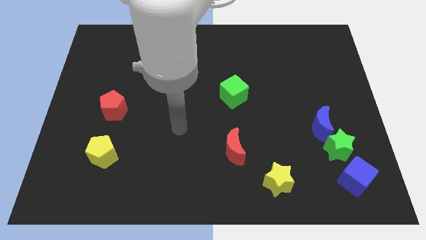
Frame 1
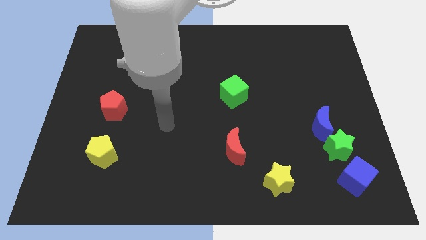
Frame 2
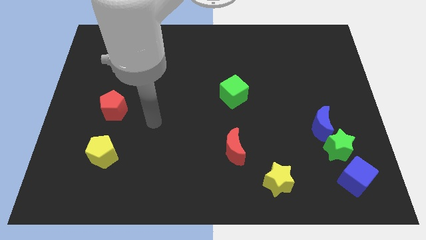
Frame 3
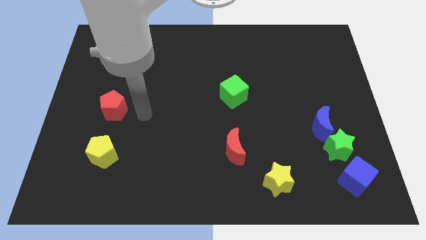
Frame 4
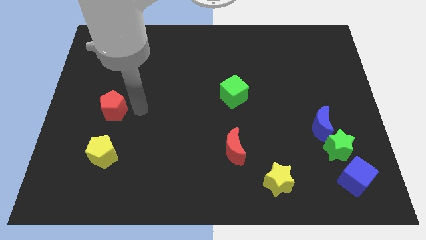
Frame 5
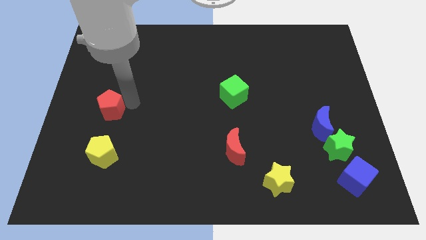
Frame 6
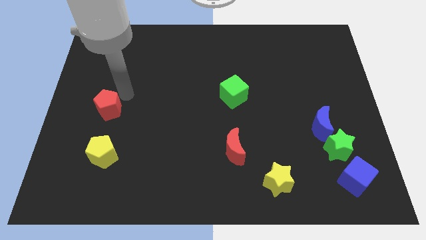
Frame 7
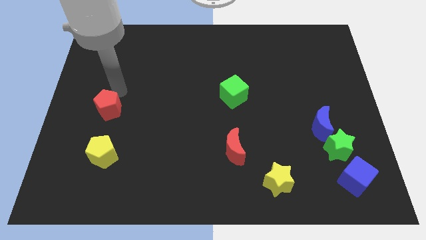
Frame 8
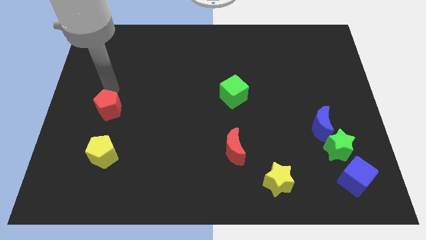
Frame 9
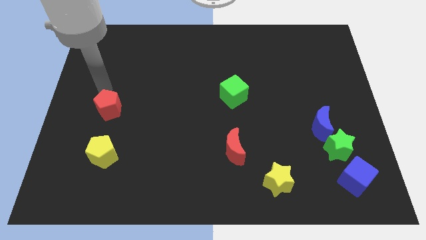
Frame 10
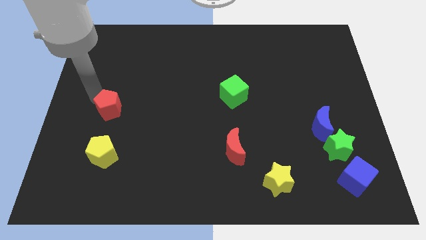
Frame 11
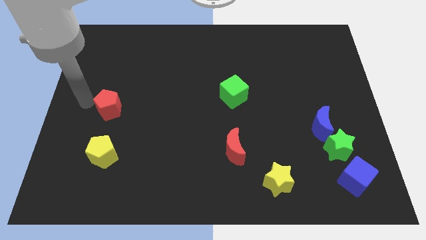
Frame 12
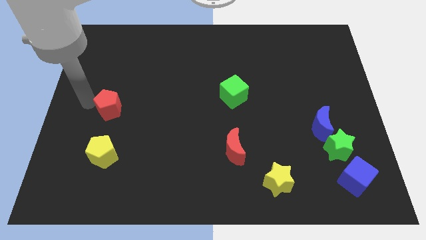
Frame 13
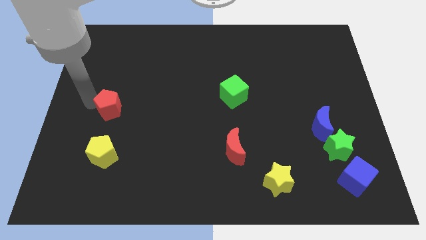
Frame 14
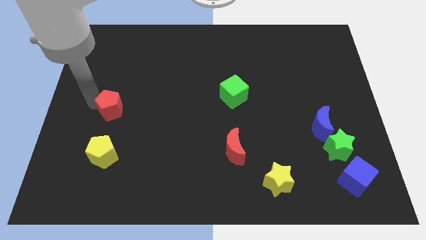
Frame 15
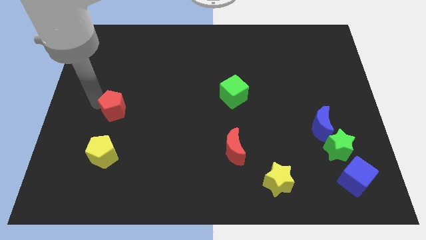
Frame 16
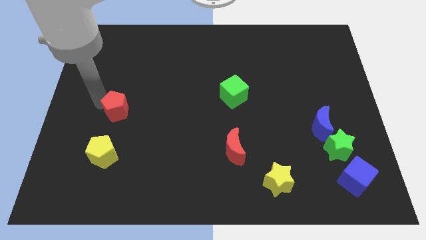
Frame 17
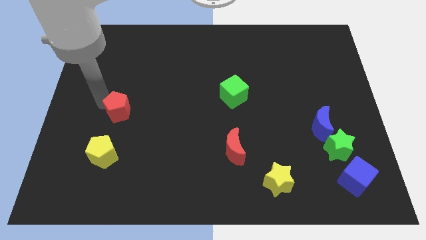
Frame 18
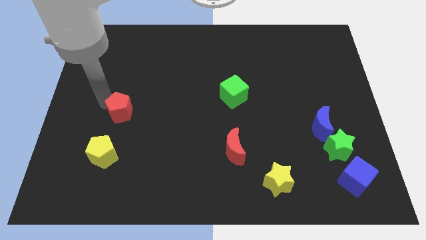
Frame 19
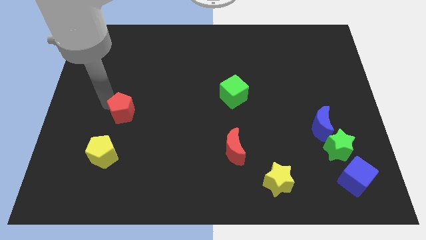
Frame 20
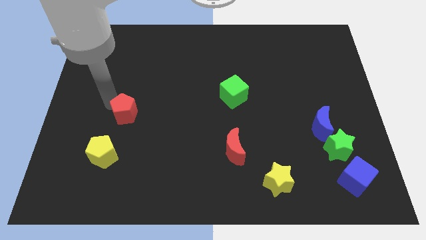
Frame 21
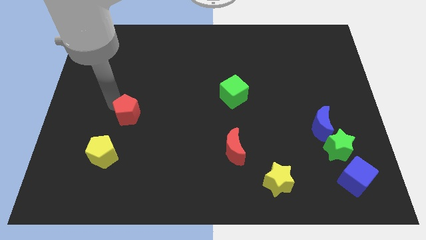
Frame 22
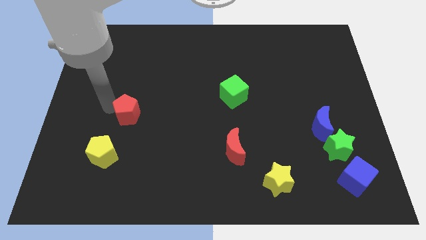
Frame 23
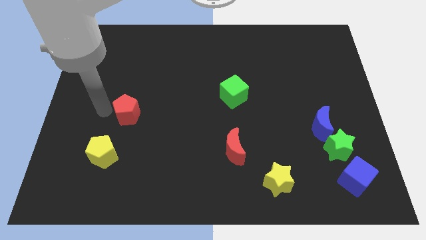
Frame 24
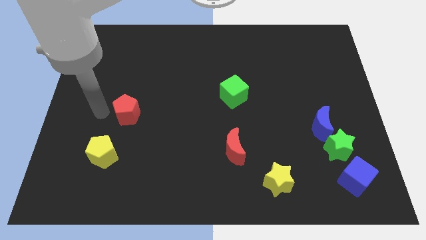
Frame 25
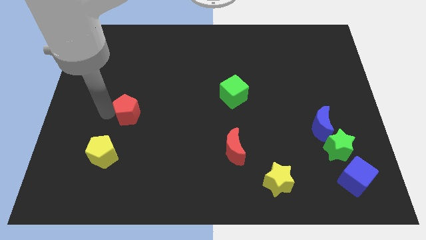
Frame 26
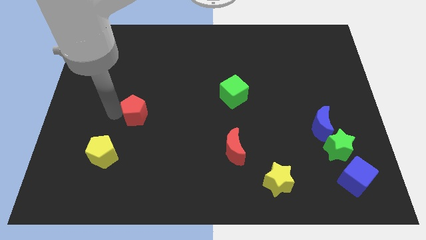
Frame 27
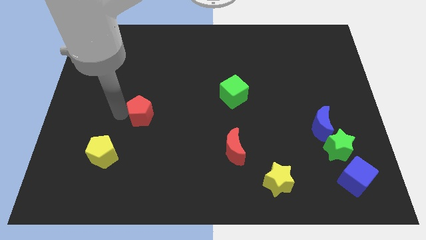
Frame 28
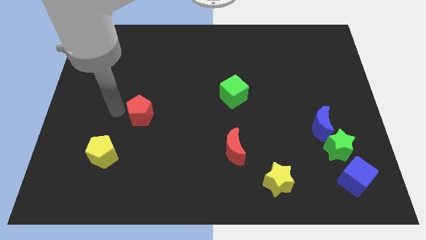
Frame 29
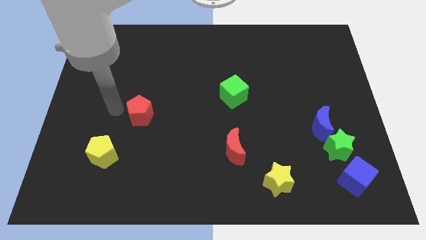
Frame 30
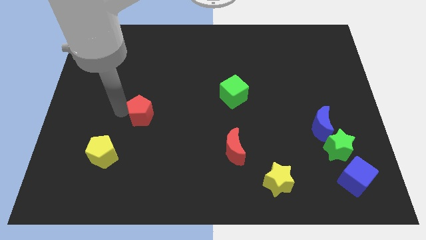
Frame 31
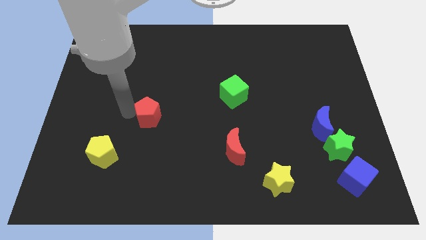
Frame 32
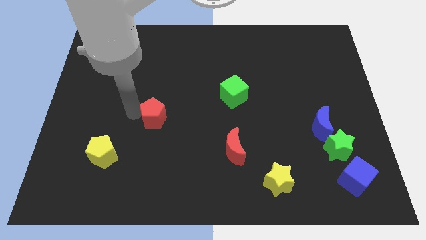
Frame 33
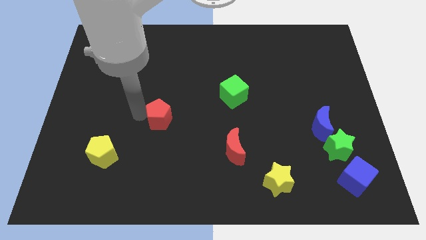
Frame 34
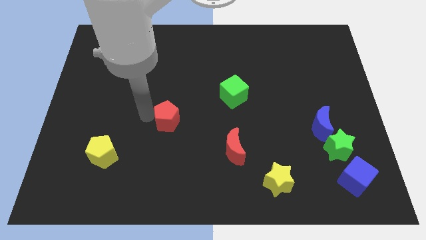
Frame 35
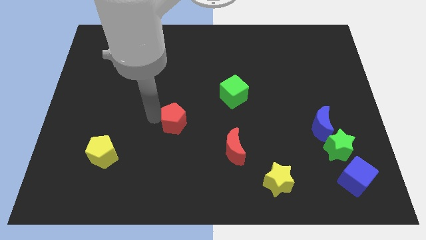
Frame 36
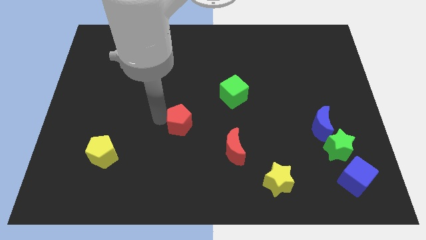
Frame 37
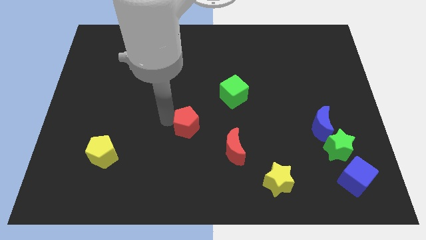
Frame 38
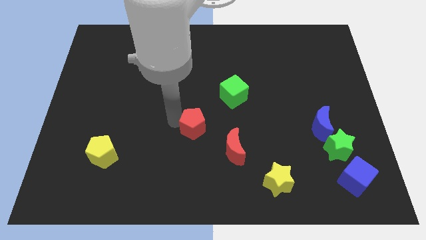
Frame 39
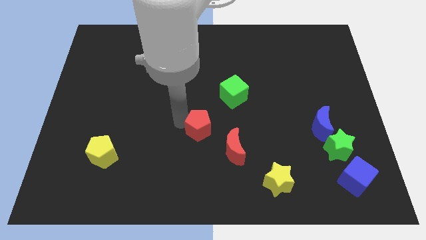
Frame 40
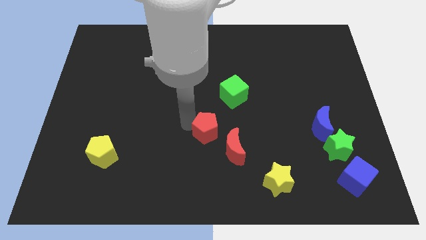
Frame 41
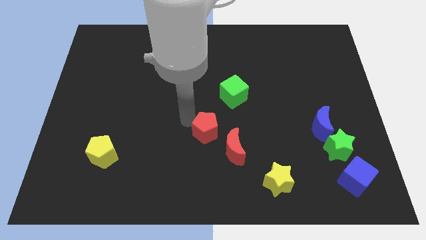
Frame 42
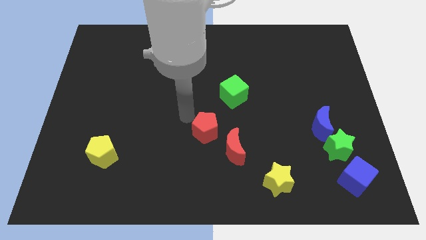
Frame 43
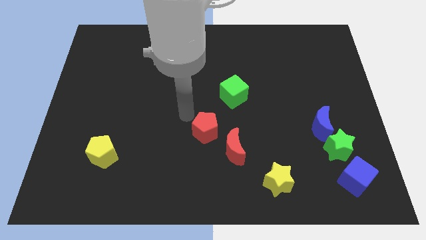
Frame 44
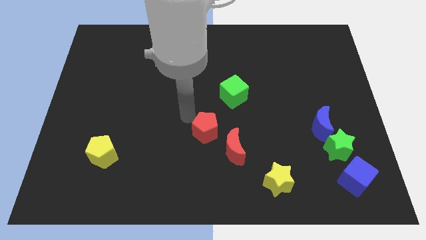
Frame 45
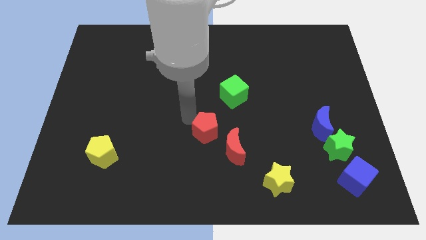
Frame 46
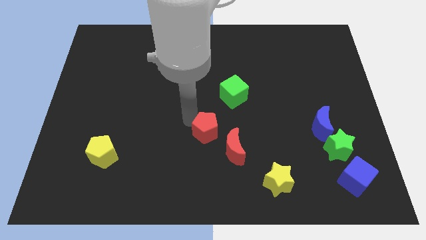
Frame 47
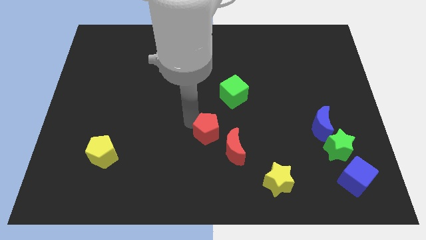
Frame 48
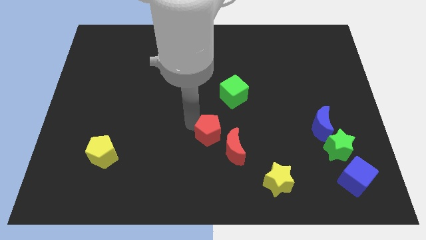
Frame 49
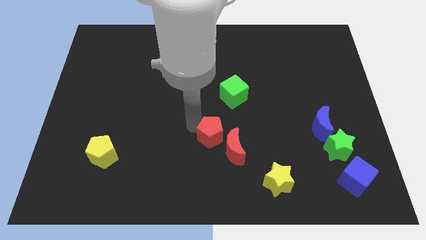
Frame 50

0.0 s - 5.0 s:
move the red pentagon next to the red moon

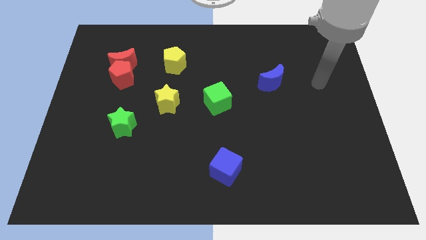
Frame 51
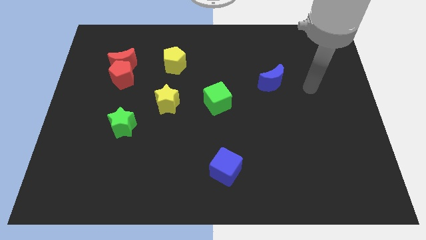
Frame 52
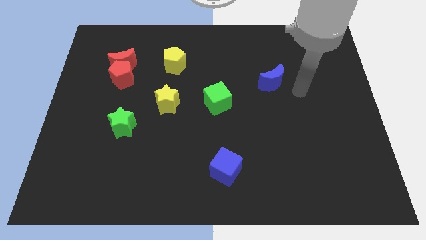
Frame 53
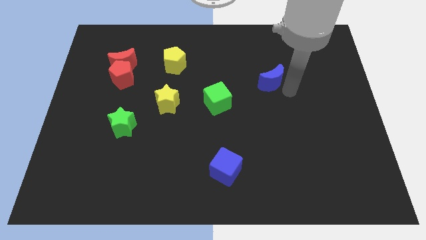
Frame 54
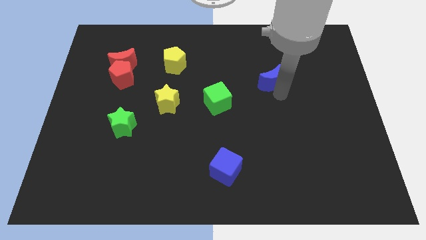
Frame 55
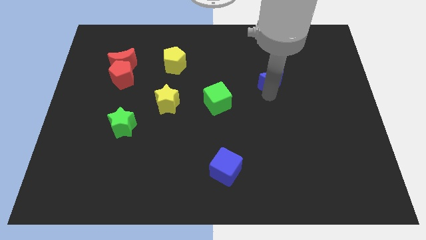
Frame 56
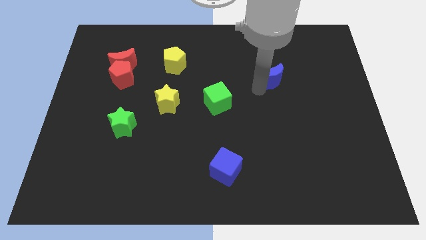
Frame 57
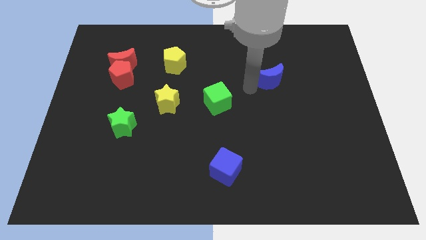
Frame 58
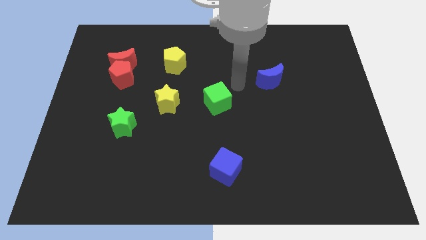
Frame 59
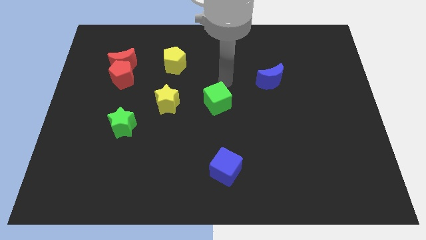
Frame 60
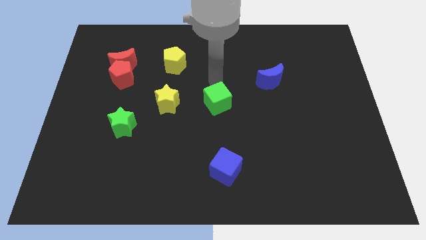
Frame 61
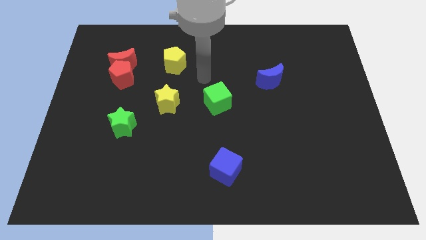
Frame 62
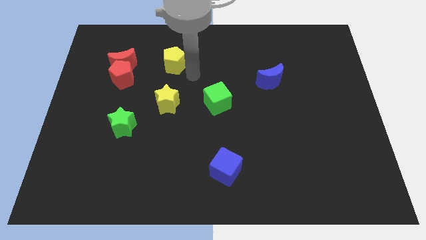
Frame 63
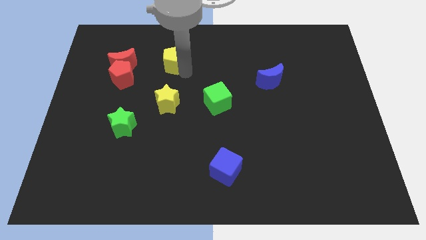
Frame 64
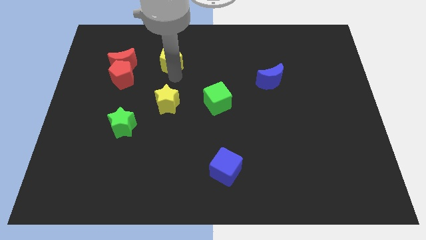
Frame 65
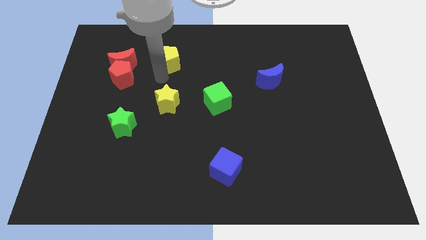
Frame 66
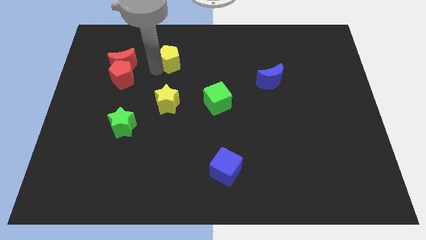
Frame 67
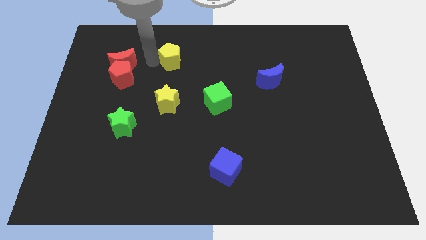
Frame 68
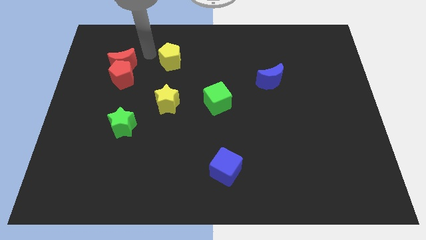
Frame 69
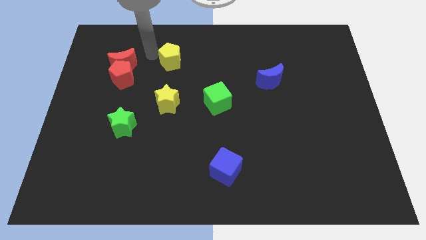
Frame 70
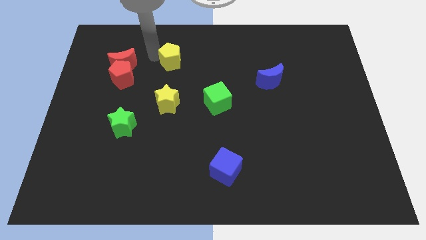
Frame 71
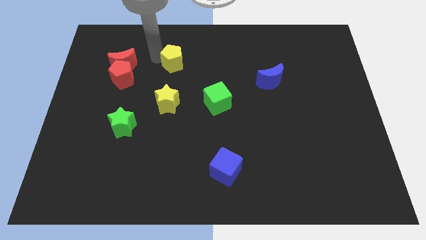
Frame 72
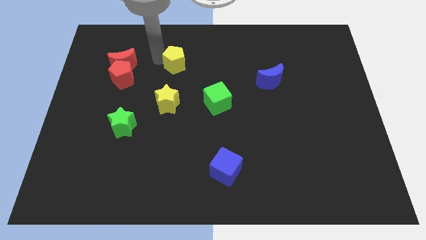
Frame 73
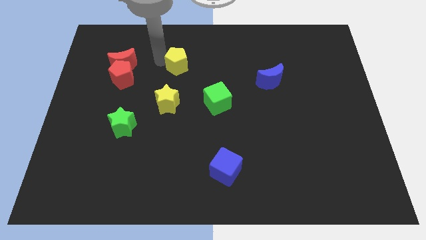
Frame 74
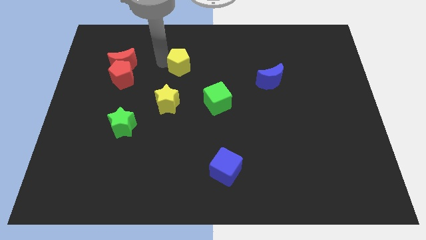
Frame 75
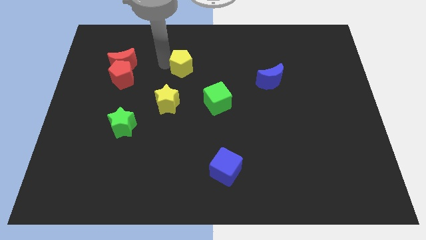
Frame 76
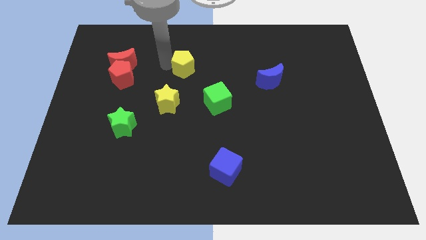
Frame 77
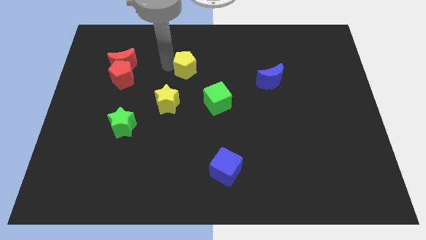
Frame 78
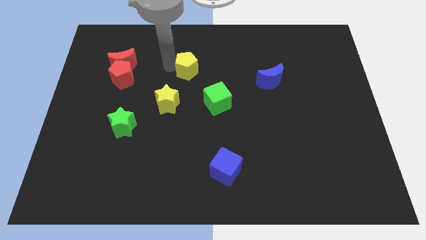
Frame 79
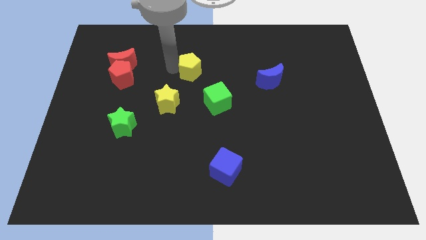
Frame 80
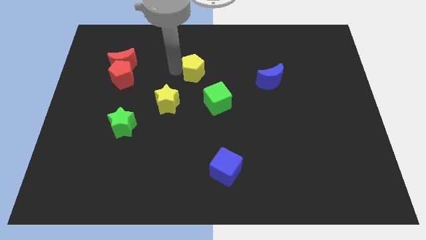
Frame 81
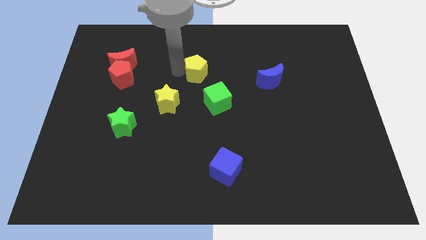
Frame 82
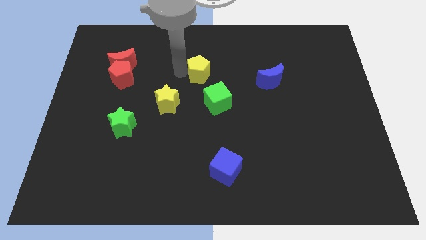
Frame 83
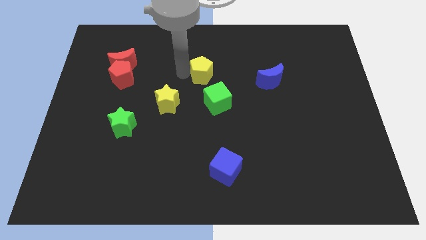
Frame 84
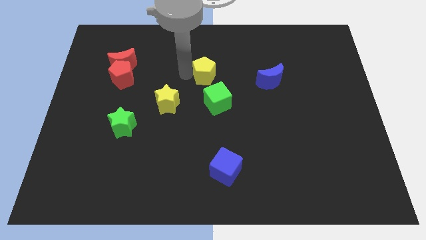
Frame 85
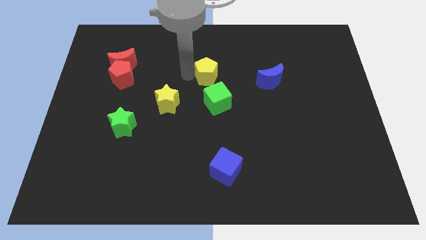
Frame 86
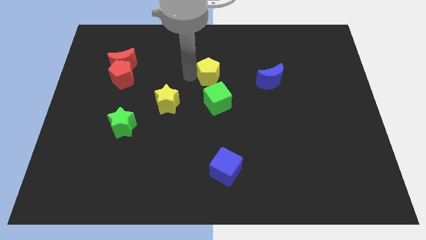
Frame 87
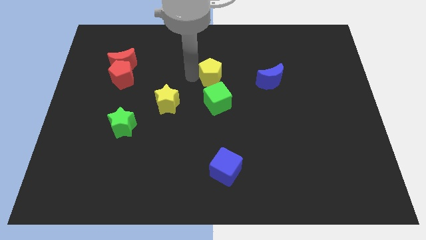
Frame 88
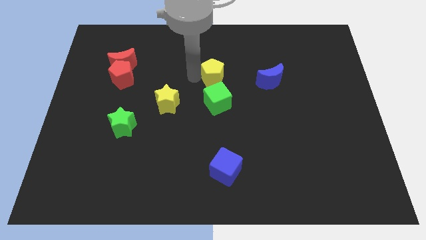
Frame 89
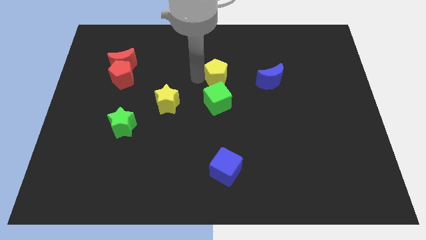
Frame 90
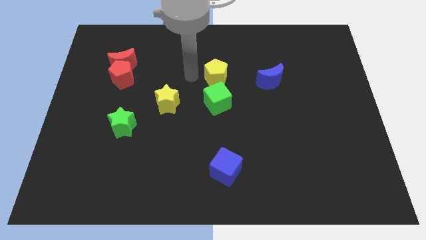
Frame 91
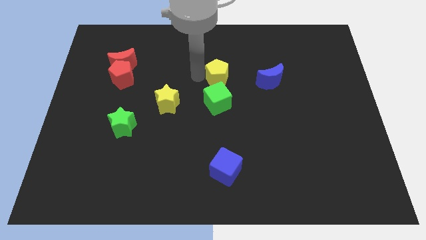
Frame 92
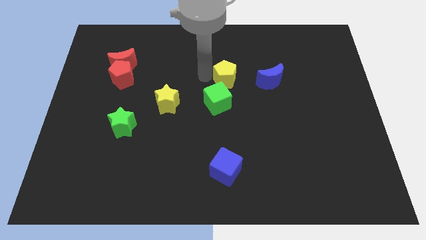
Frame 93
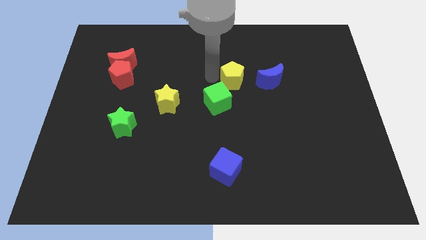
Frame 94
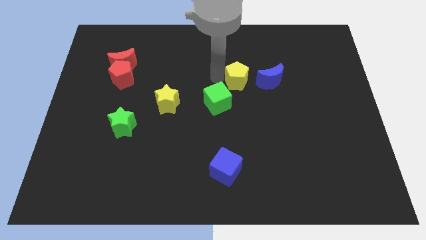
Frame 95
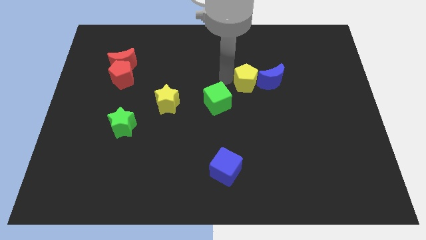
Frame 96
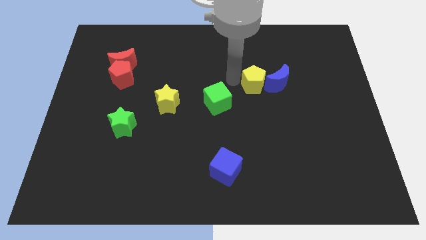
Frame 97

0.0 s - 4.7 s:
slide the yellow pentagon close to the blue moon
